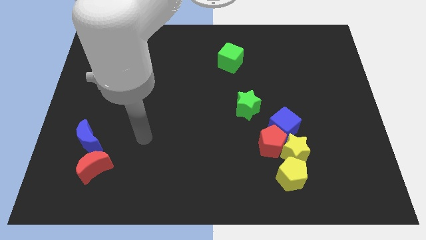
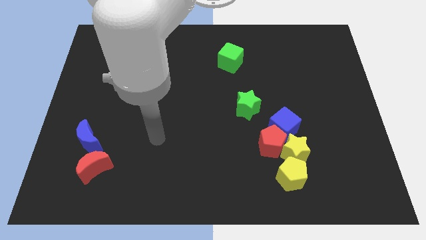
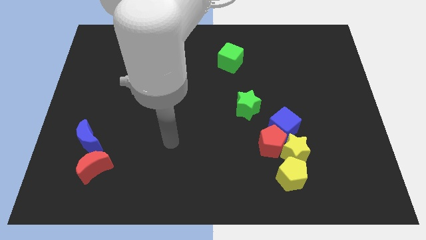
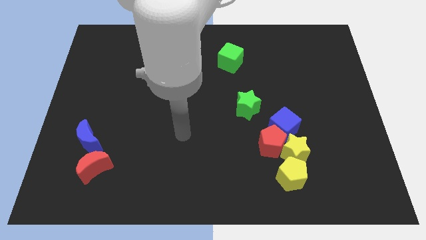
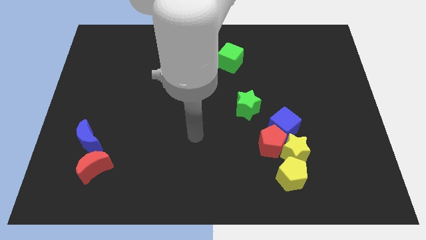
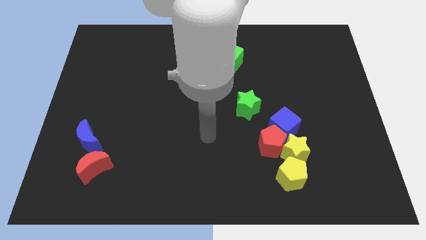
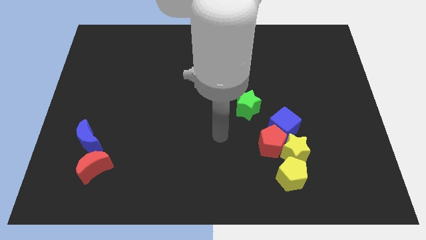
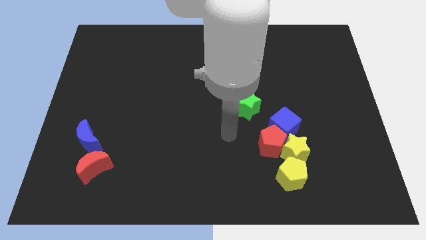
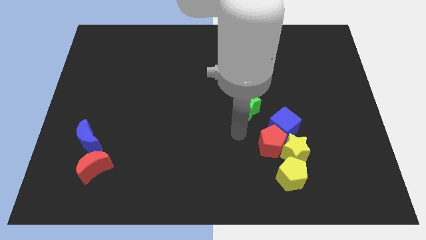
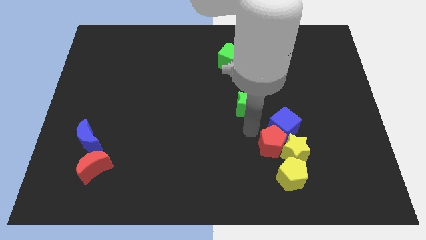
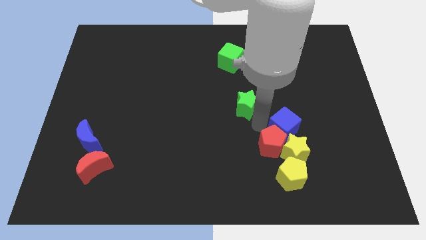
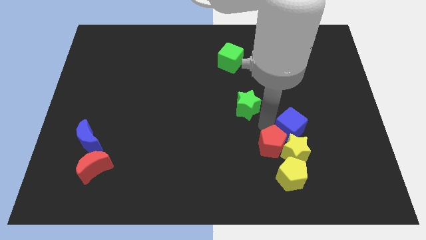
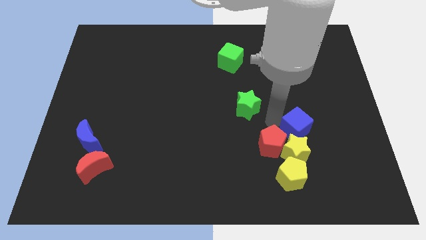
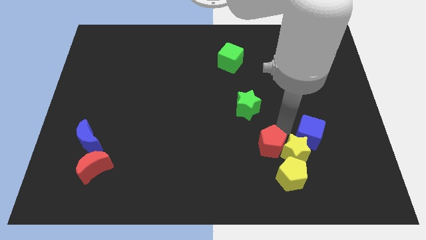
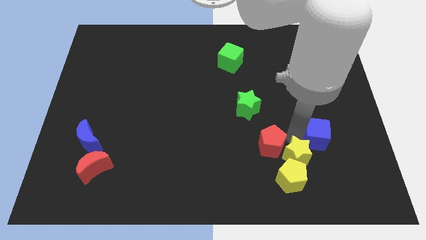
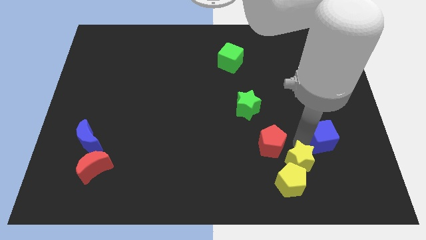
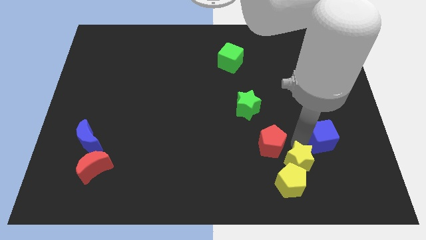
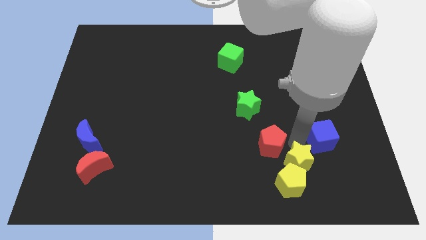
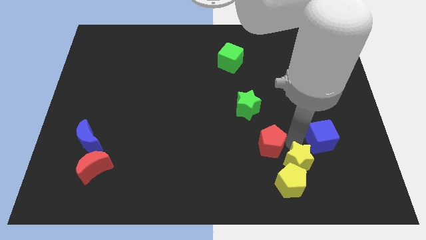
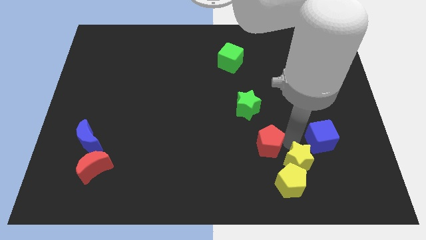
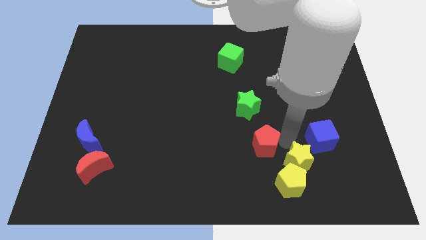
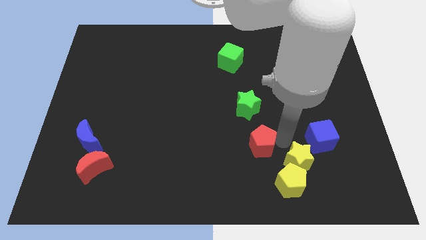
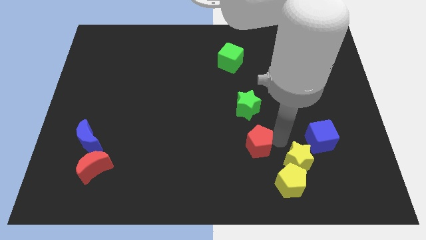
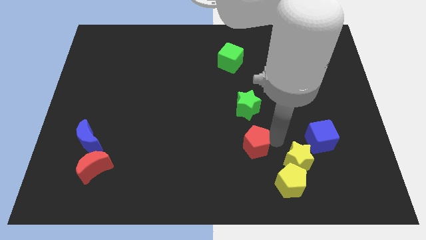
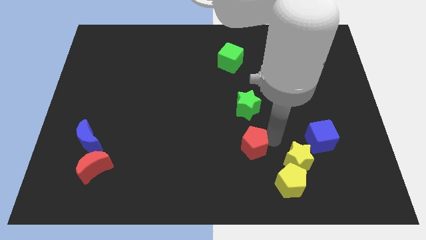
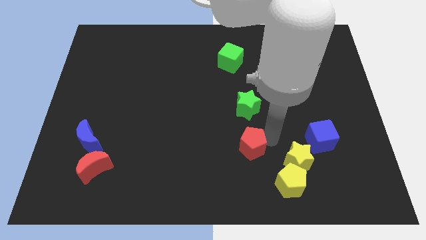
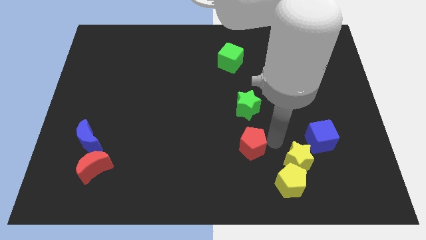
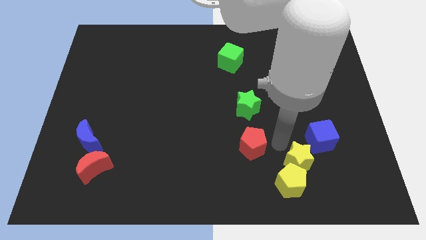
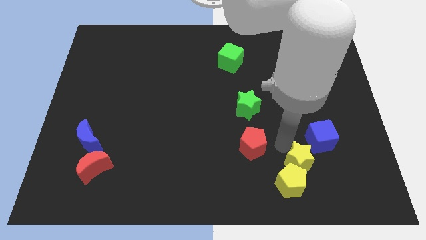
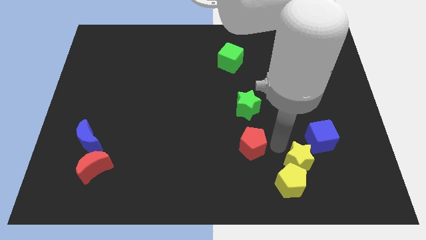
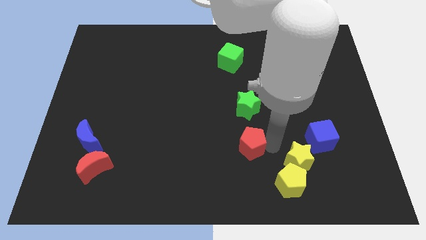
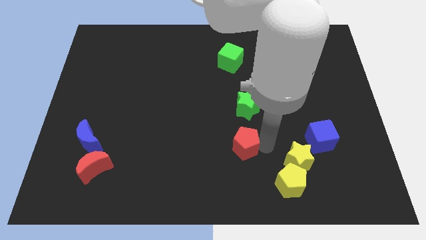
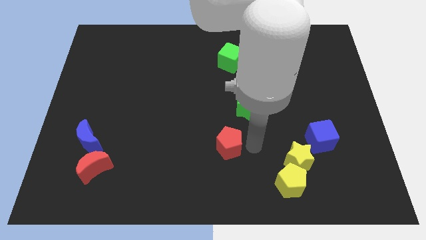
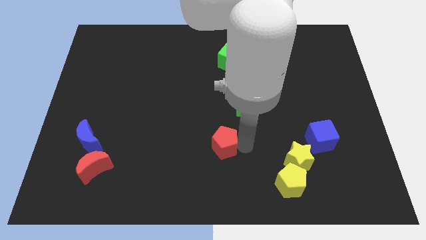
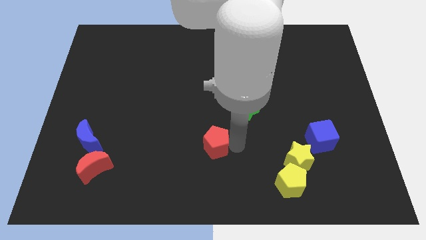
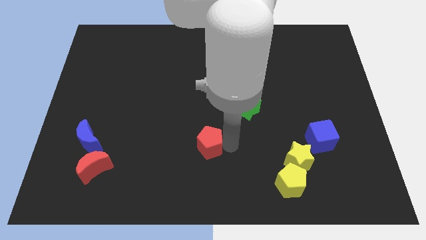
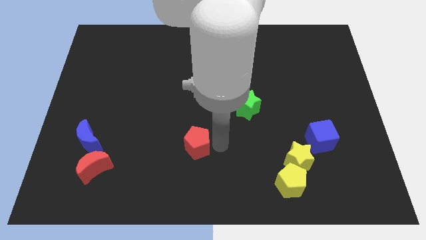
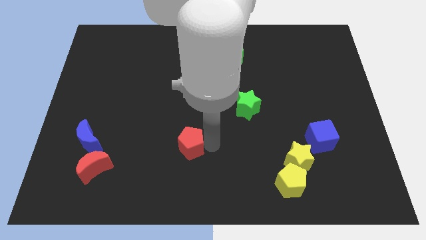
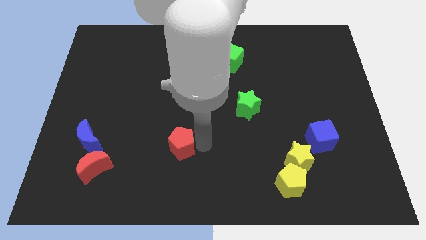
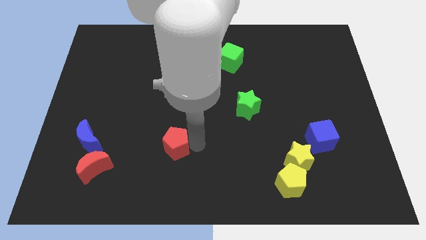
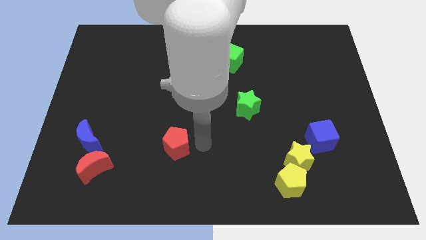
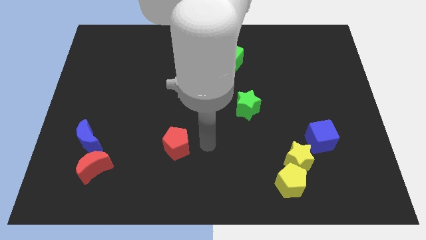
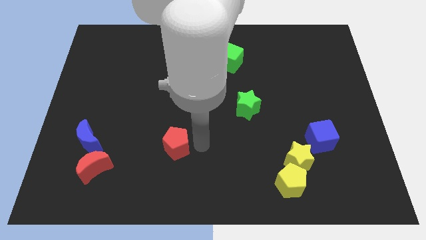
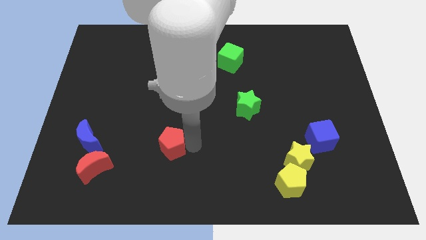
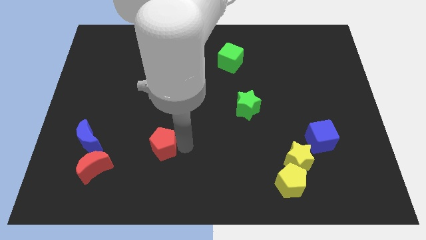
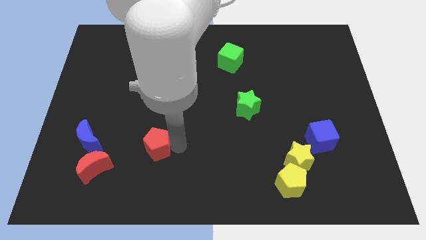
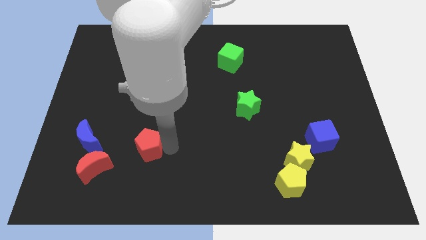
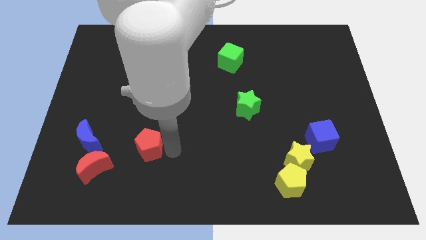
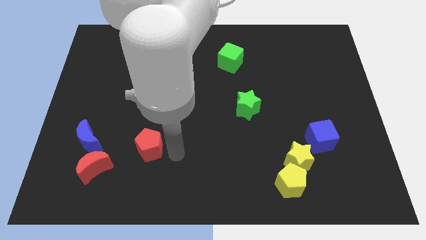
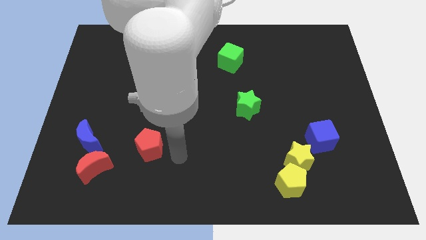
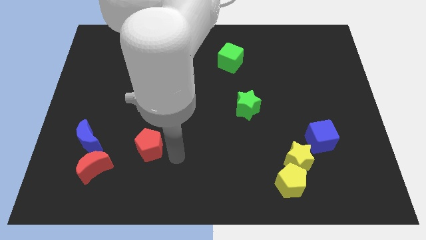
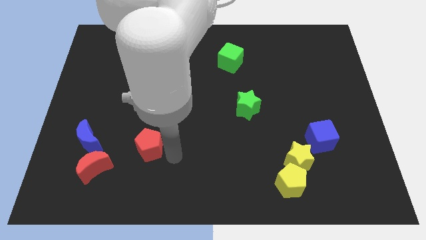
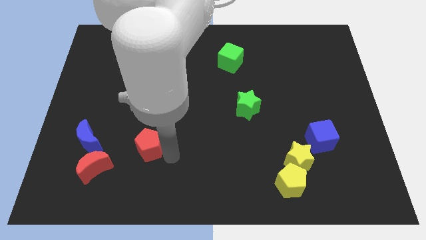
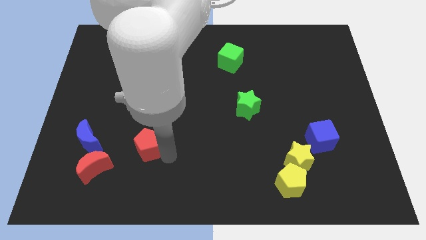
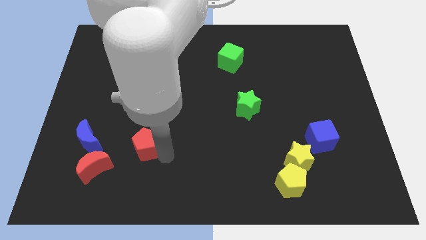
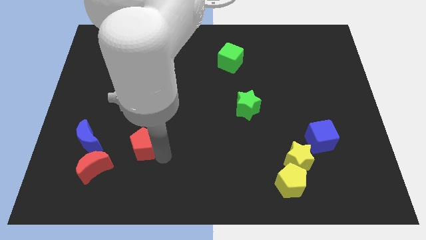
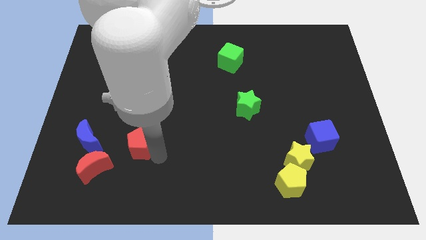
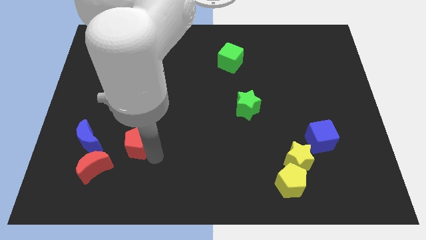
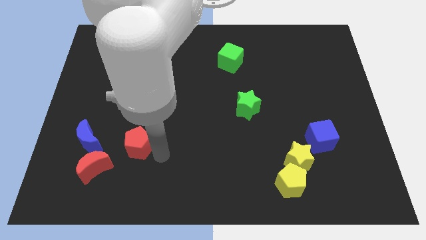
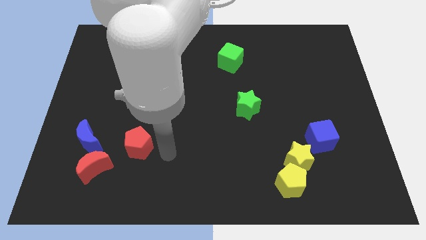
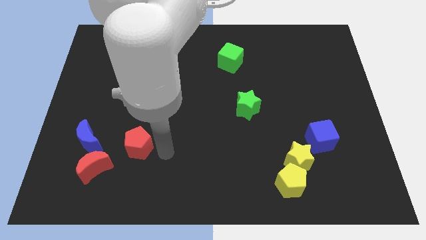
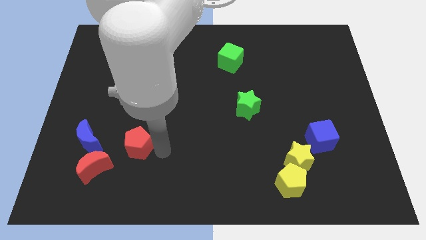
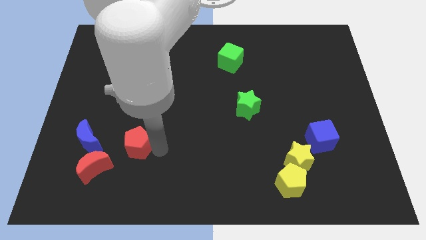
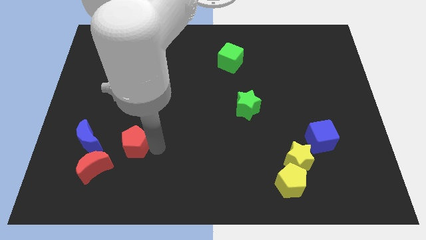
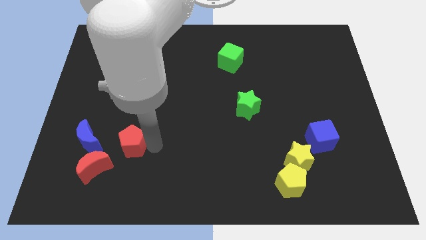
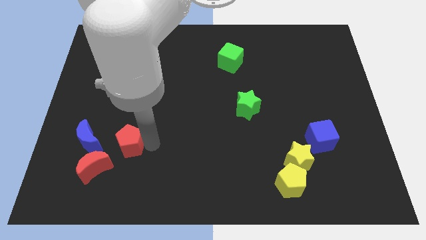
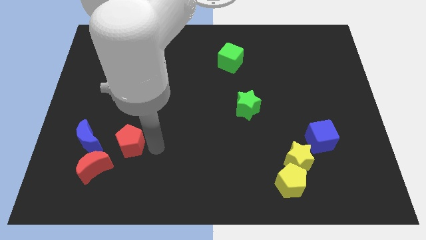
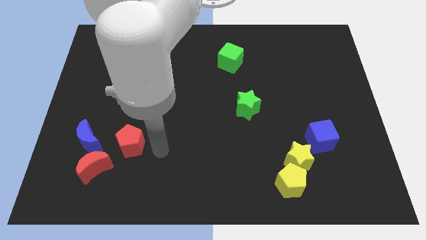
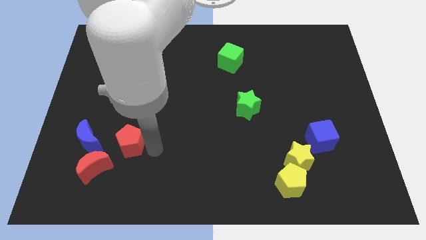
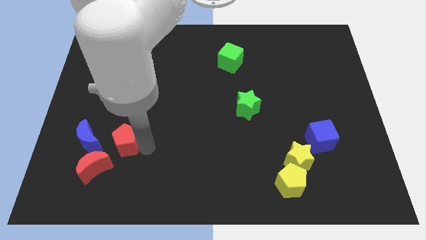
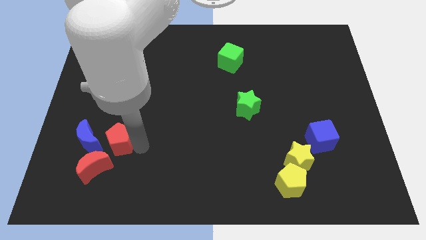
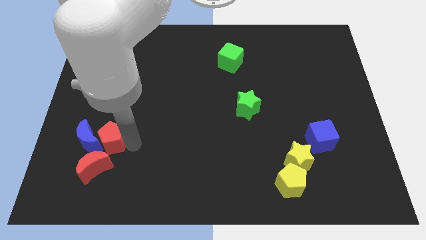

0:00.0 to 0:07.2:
slide the red pentagon next to the blue moon
